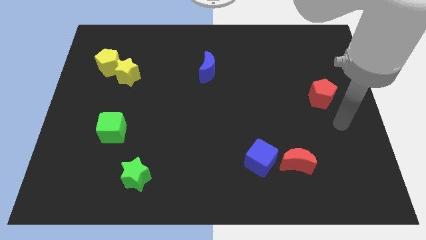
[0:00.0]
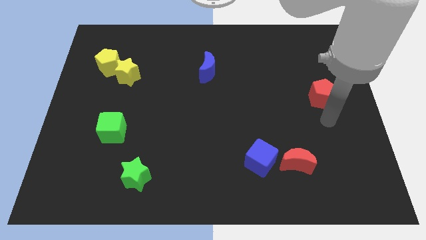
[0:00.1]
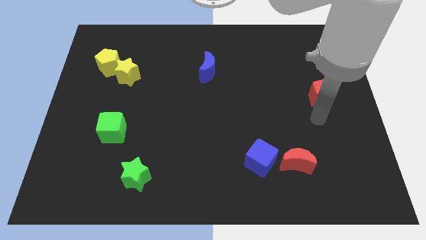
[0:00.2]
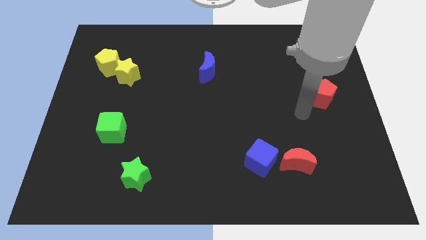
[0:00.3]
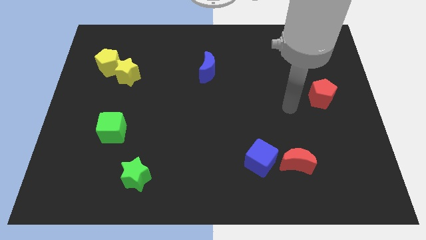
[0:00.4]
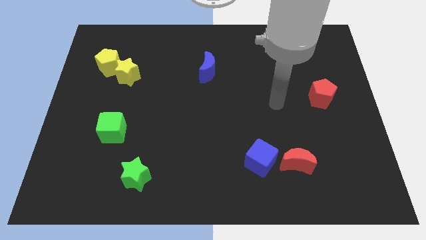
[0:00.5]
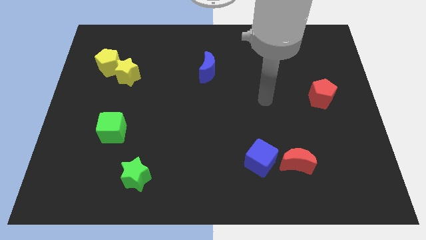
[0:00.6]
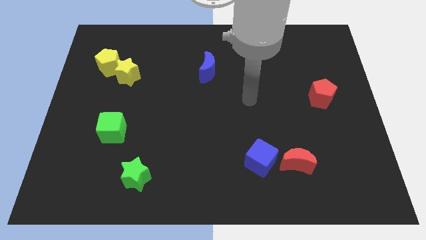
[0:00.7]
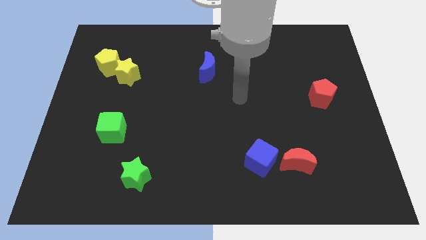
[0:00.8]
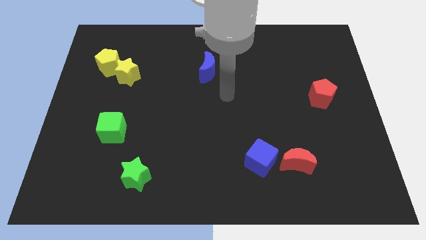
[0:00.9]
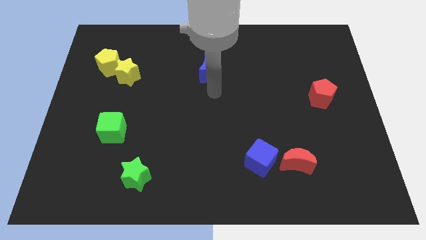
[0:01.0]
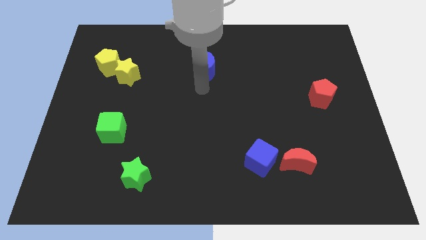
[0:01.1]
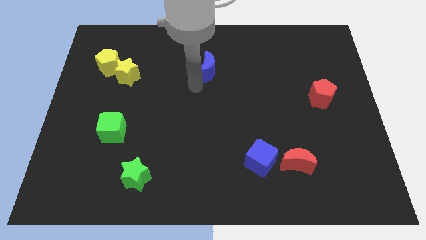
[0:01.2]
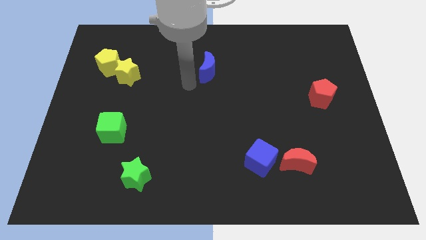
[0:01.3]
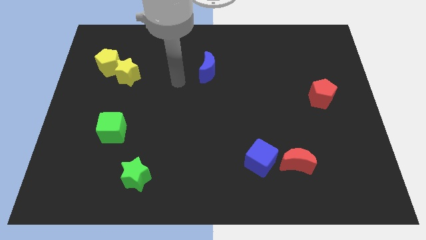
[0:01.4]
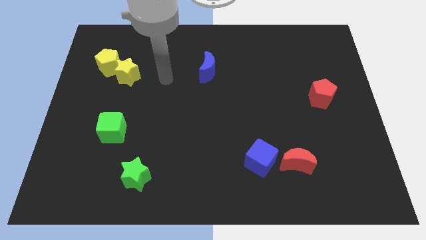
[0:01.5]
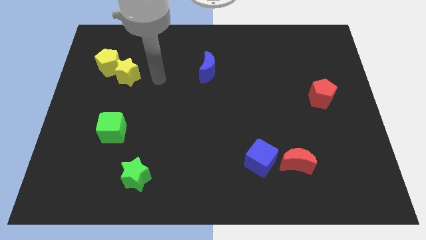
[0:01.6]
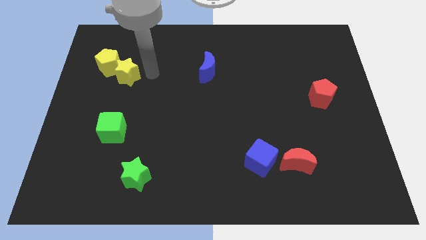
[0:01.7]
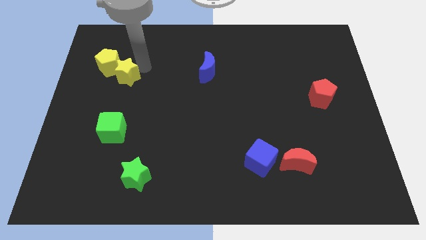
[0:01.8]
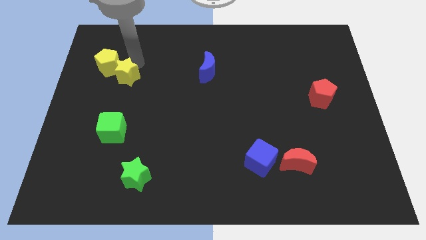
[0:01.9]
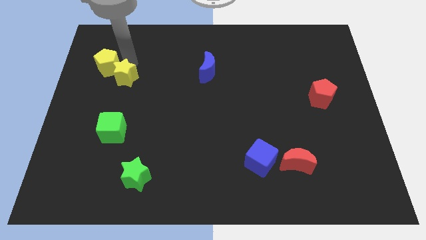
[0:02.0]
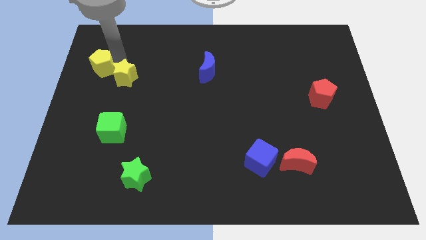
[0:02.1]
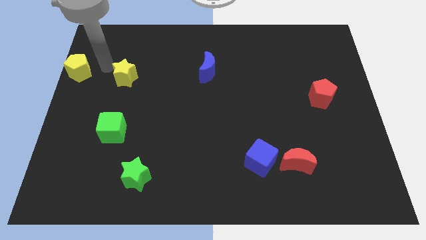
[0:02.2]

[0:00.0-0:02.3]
separate the yellow star from the yellow pentagon

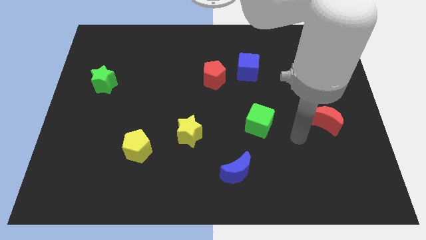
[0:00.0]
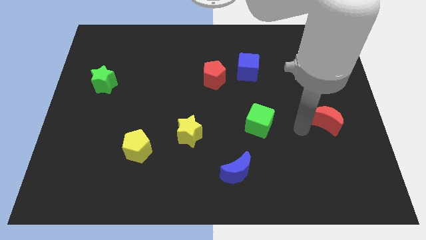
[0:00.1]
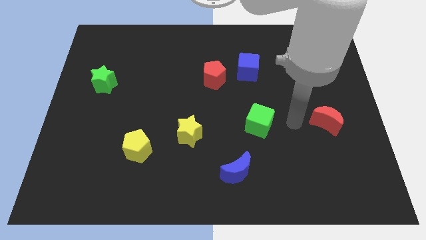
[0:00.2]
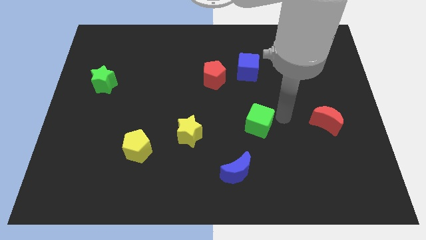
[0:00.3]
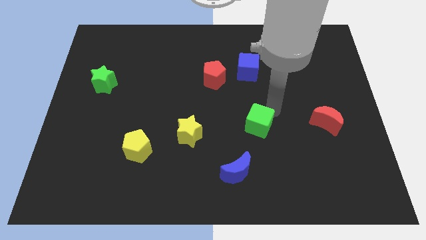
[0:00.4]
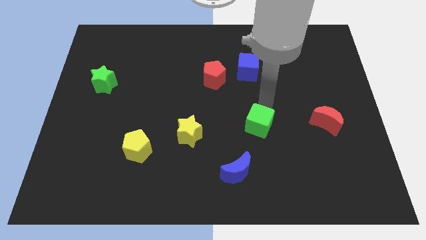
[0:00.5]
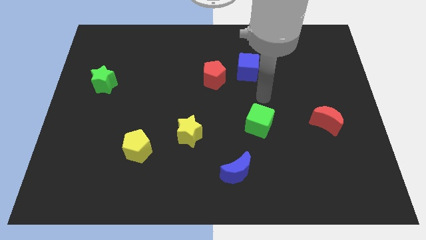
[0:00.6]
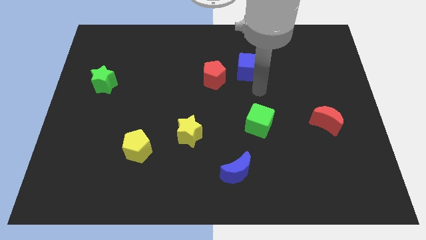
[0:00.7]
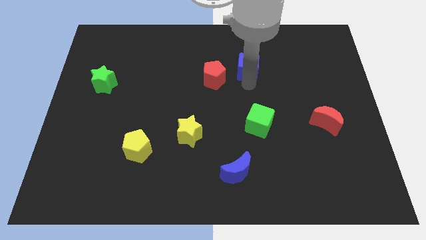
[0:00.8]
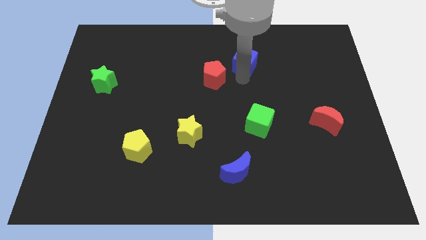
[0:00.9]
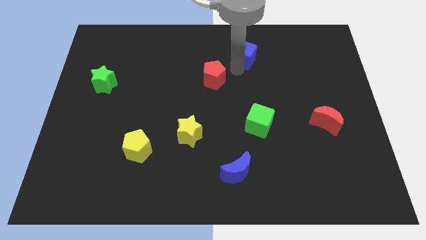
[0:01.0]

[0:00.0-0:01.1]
move the red pentagon away from the blue cube

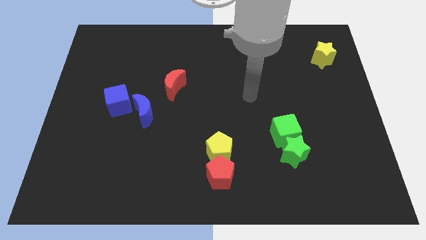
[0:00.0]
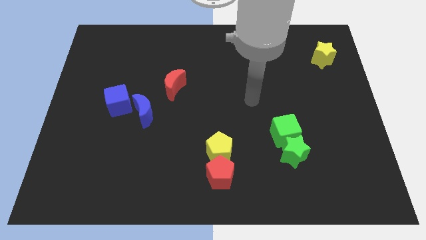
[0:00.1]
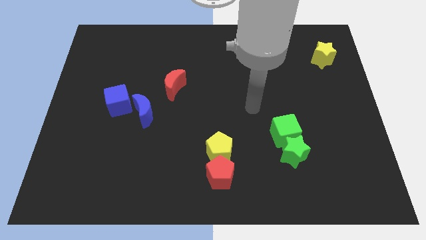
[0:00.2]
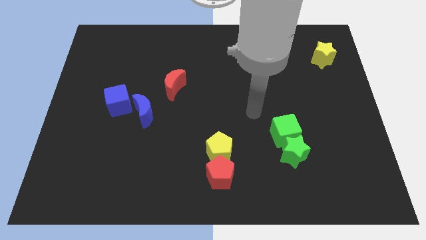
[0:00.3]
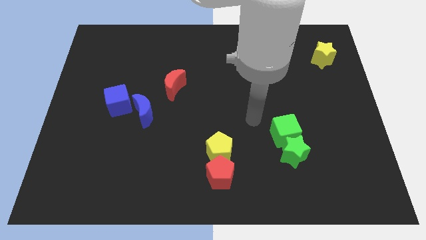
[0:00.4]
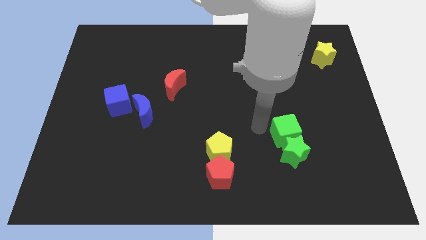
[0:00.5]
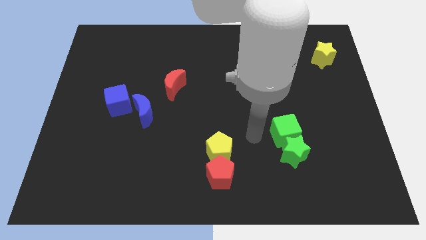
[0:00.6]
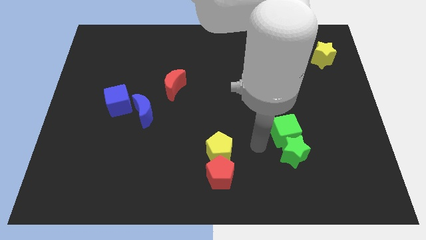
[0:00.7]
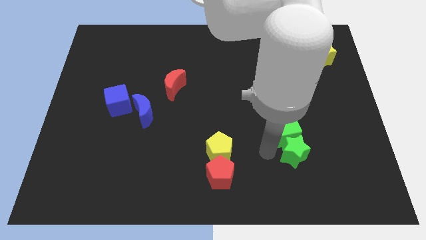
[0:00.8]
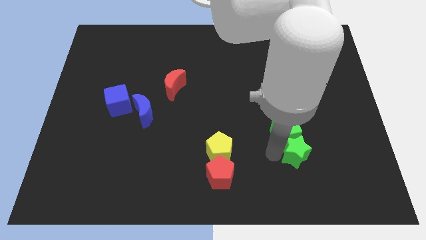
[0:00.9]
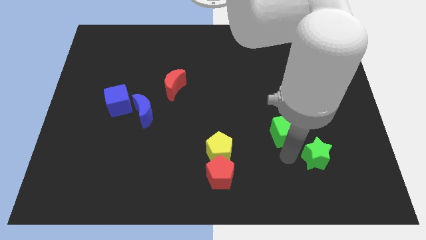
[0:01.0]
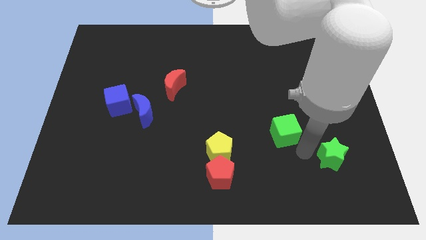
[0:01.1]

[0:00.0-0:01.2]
move the green cube away from the green star

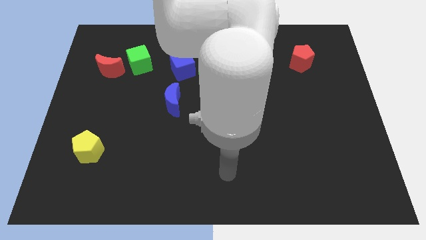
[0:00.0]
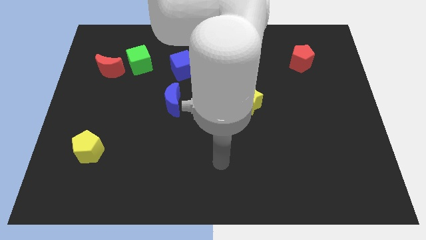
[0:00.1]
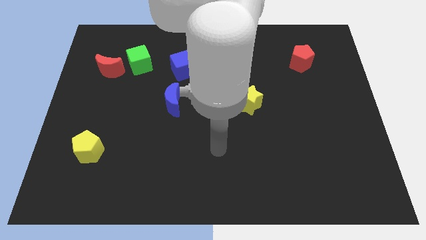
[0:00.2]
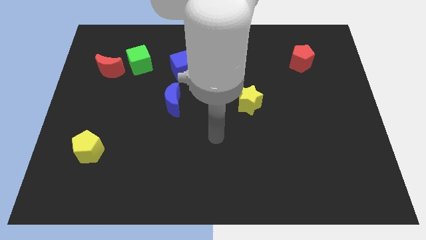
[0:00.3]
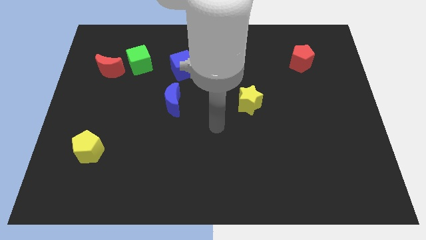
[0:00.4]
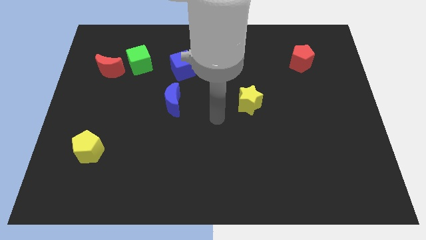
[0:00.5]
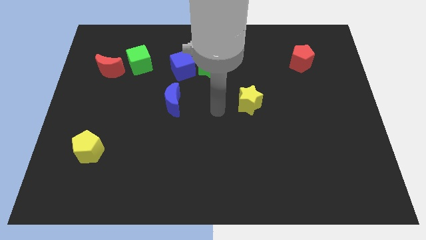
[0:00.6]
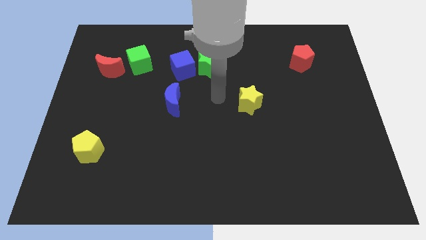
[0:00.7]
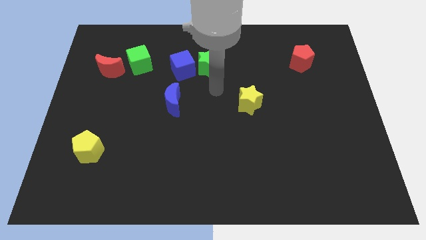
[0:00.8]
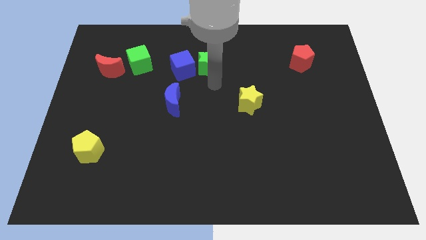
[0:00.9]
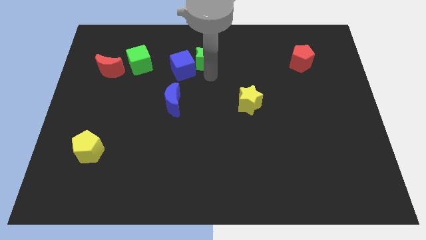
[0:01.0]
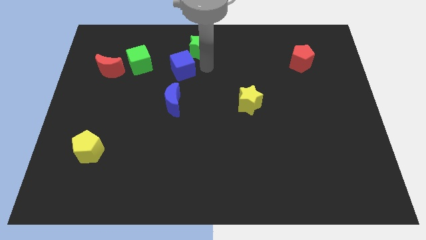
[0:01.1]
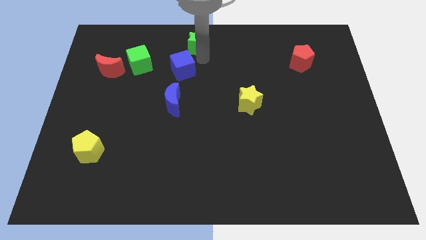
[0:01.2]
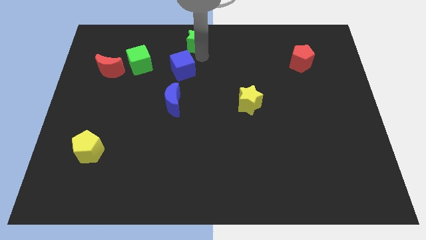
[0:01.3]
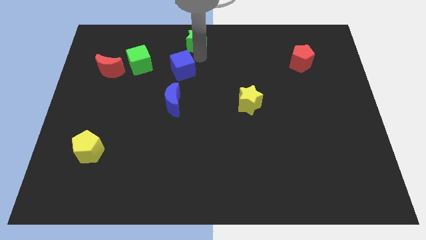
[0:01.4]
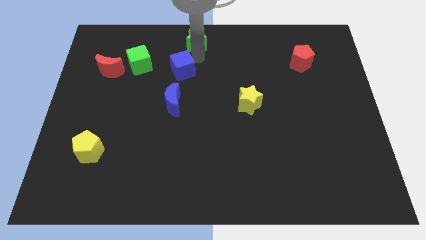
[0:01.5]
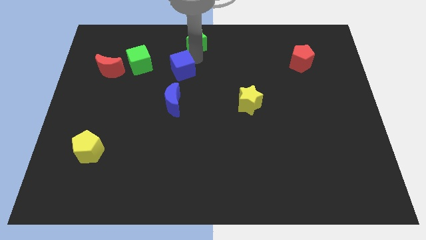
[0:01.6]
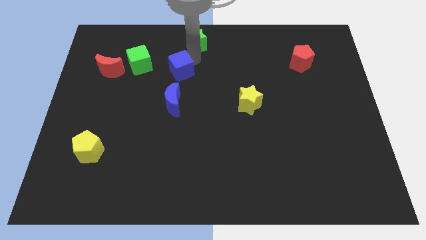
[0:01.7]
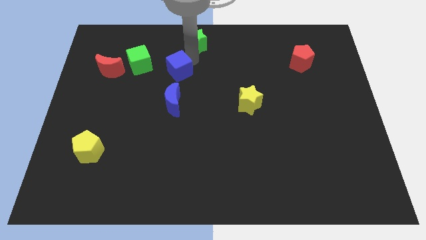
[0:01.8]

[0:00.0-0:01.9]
pull the blue cube apart from the green star

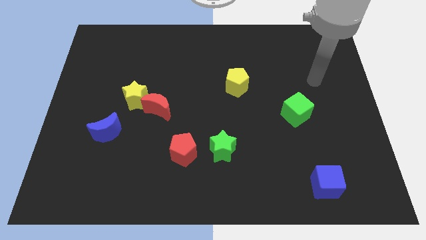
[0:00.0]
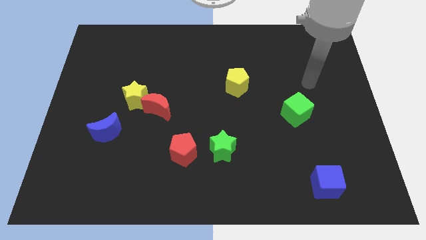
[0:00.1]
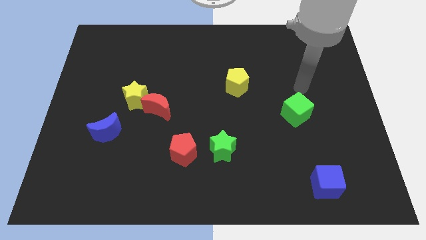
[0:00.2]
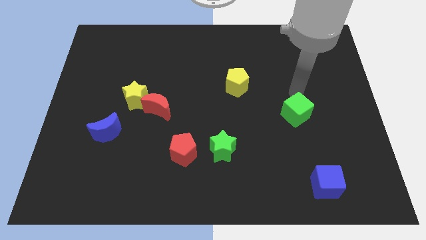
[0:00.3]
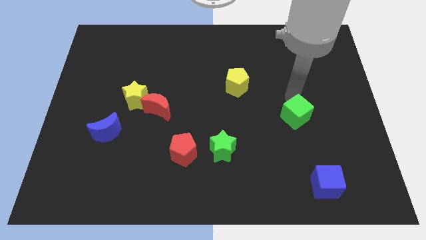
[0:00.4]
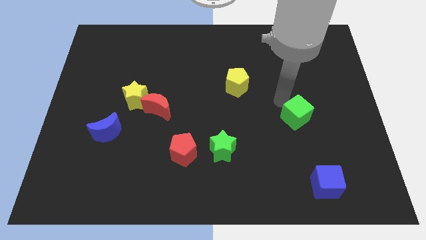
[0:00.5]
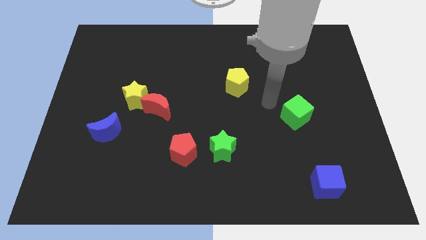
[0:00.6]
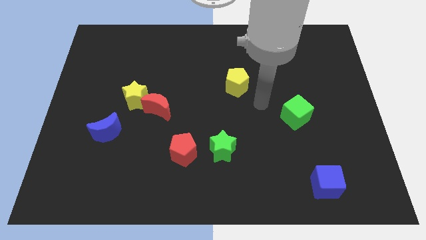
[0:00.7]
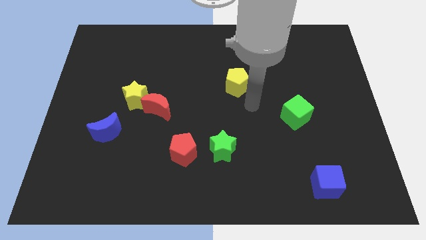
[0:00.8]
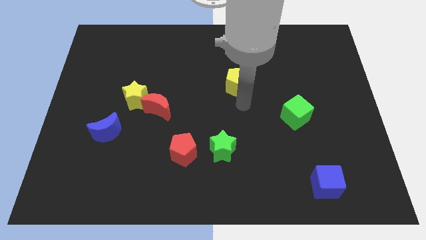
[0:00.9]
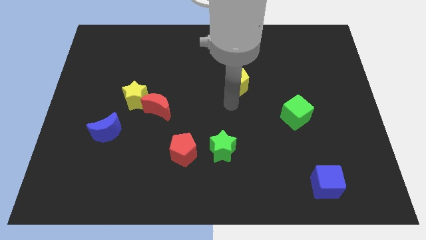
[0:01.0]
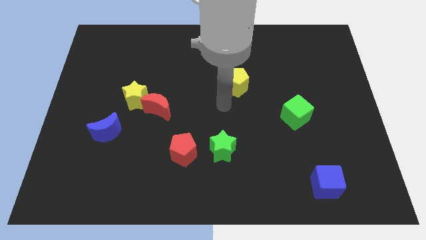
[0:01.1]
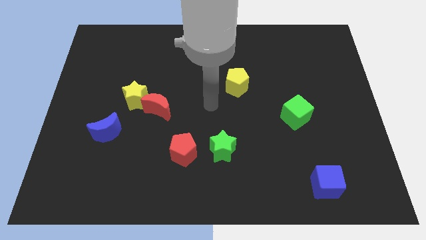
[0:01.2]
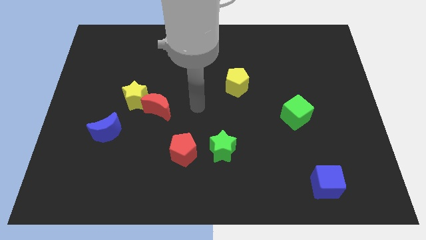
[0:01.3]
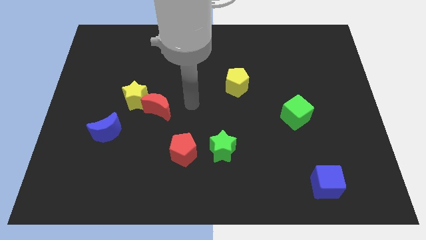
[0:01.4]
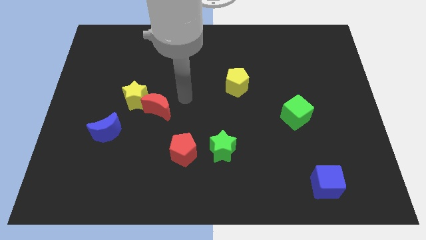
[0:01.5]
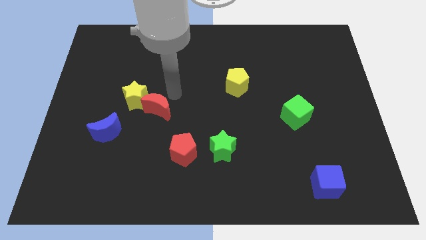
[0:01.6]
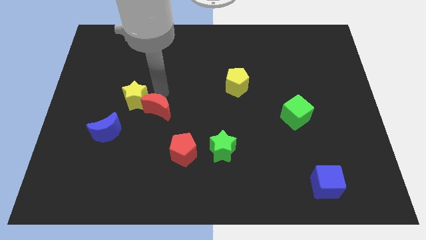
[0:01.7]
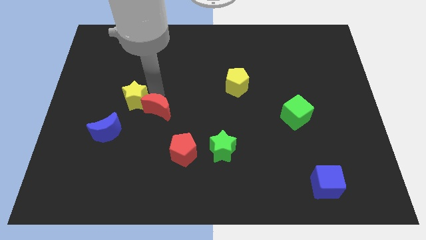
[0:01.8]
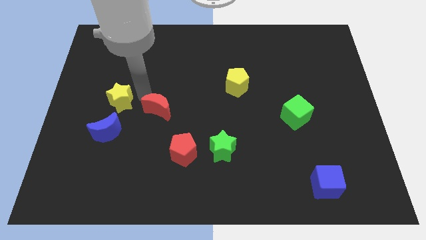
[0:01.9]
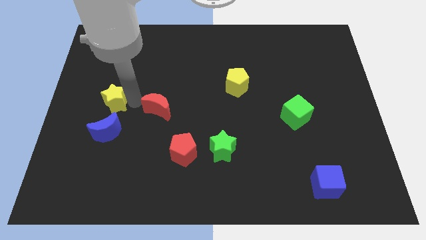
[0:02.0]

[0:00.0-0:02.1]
move the red moon away from the yellow star

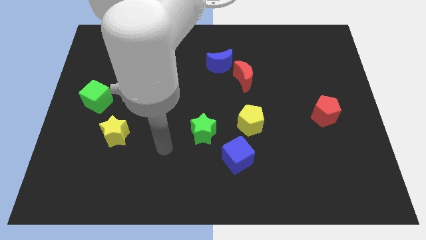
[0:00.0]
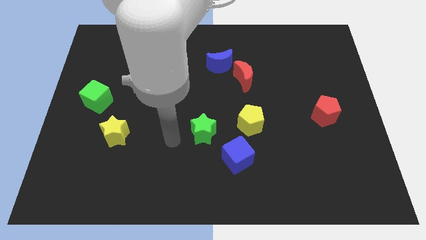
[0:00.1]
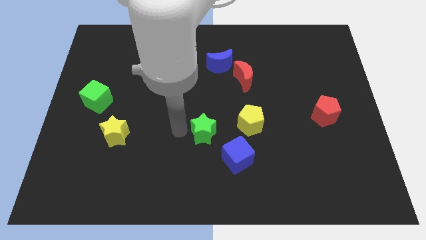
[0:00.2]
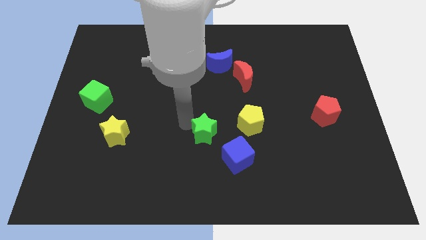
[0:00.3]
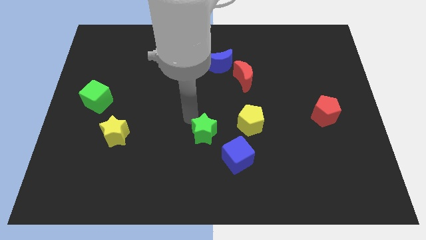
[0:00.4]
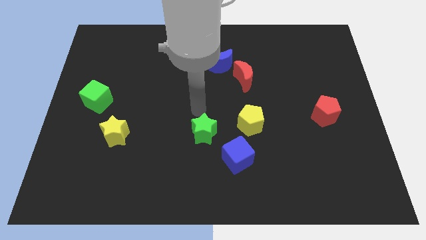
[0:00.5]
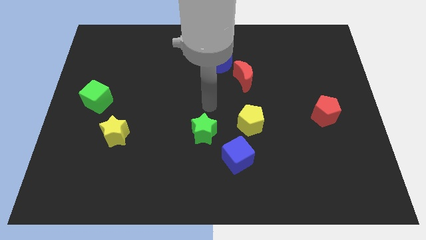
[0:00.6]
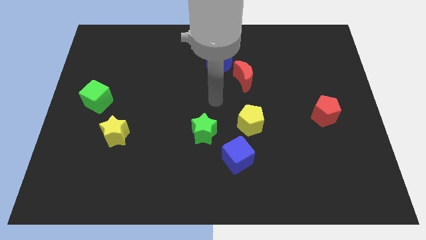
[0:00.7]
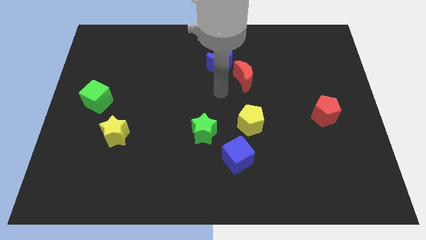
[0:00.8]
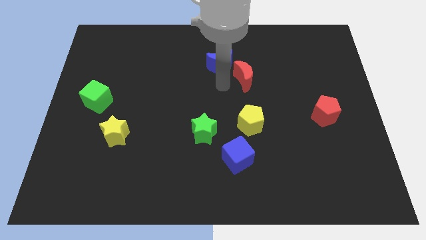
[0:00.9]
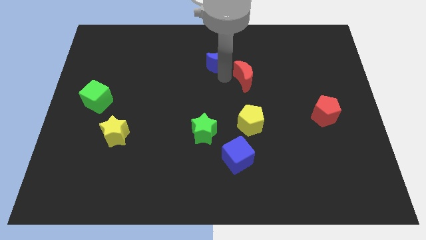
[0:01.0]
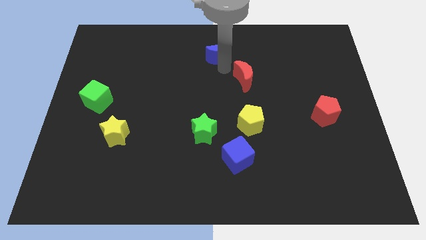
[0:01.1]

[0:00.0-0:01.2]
move the red moon away from the blue moon
